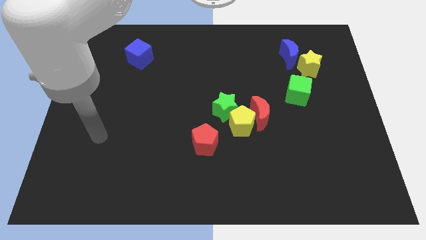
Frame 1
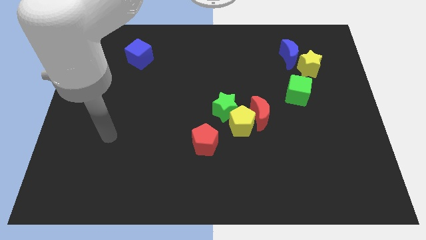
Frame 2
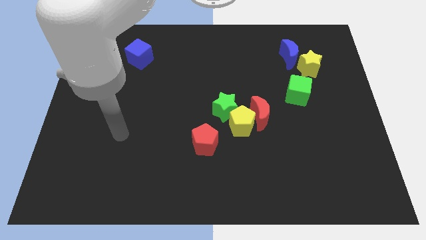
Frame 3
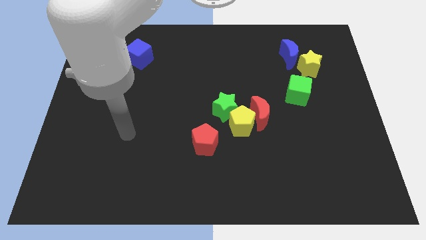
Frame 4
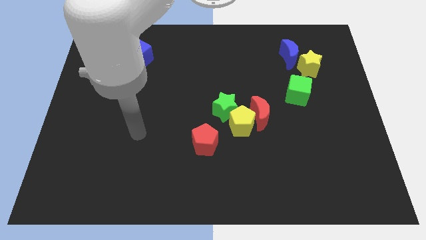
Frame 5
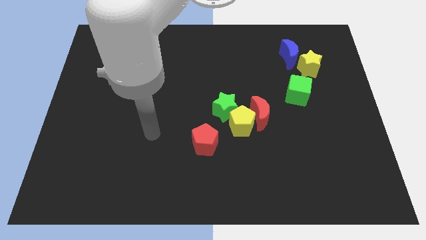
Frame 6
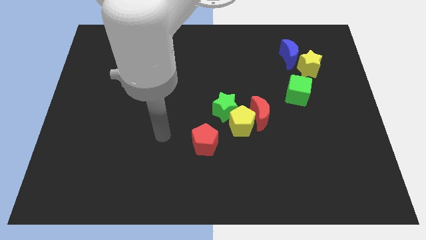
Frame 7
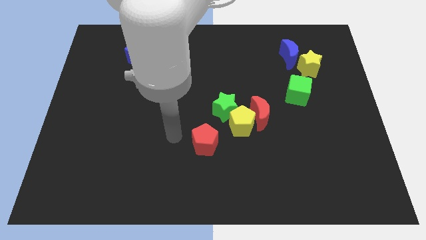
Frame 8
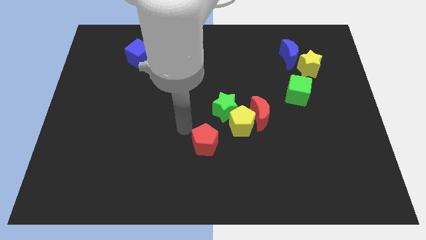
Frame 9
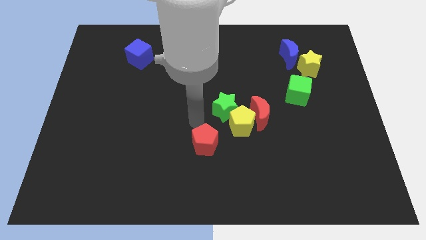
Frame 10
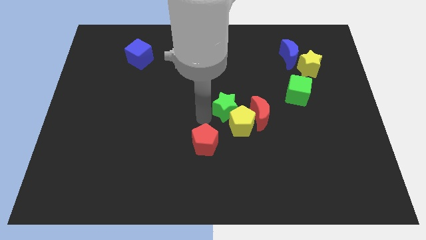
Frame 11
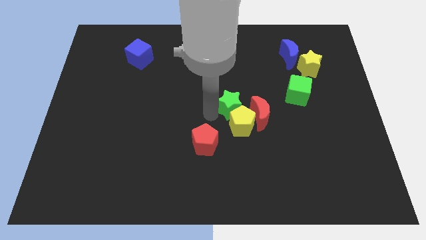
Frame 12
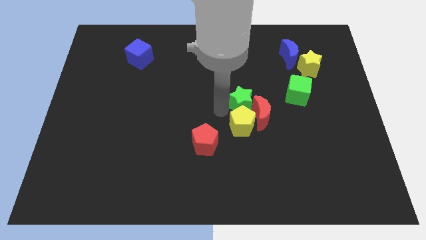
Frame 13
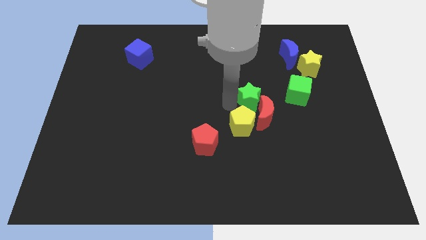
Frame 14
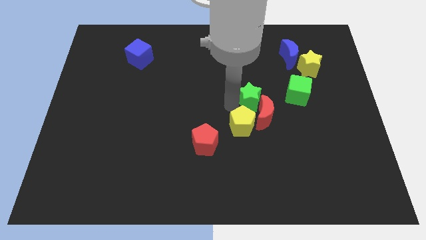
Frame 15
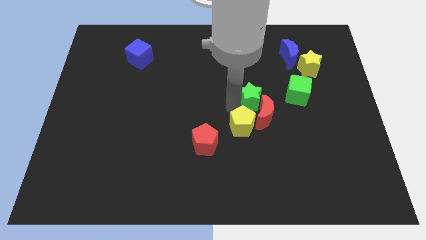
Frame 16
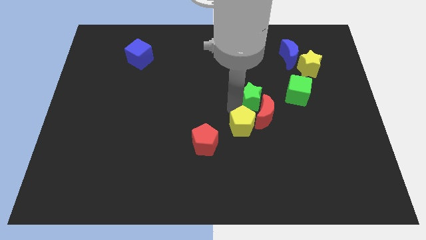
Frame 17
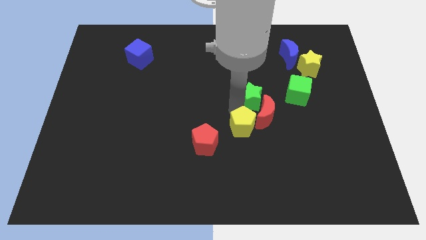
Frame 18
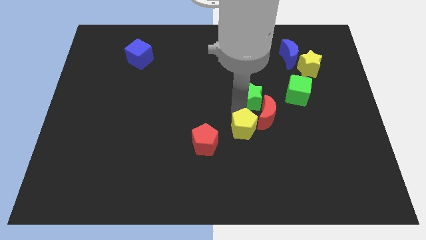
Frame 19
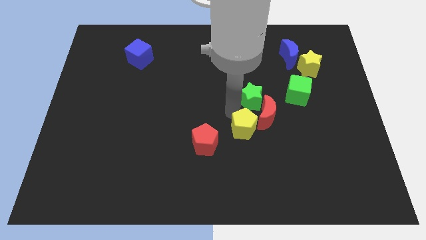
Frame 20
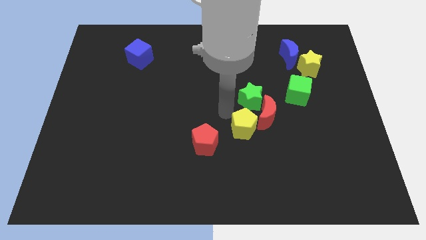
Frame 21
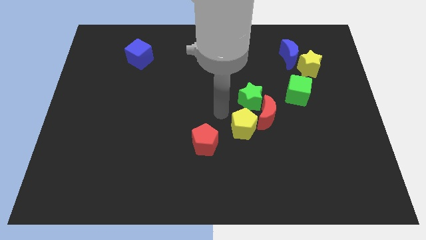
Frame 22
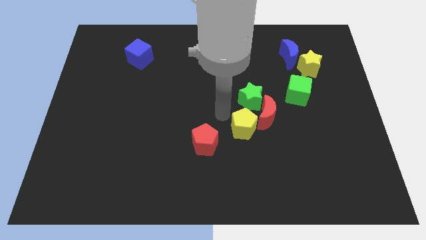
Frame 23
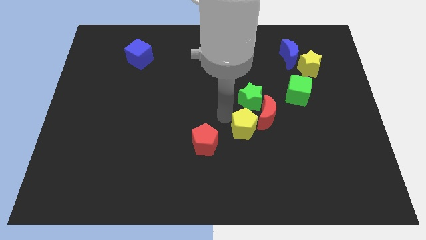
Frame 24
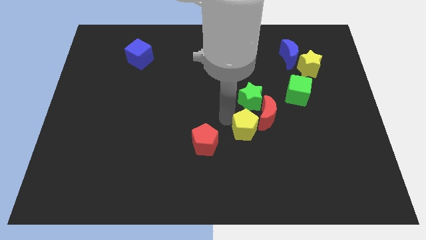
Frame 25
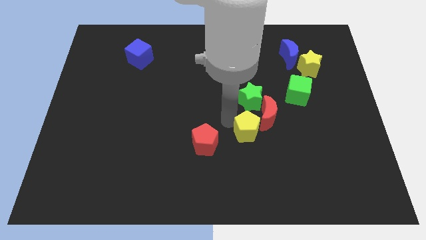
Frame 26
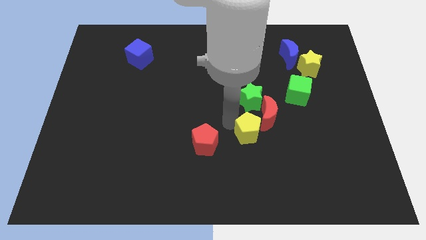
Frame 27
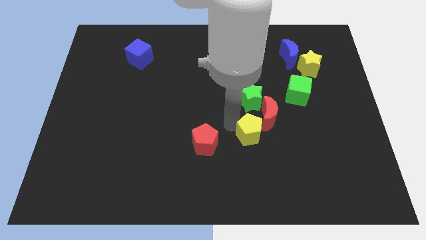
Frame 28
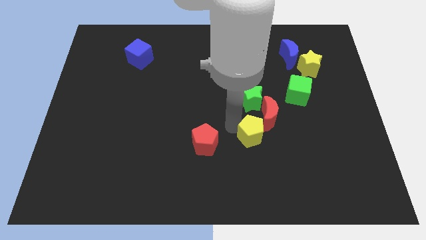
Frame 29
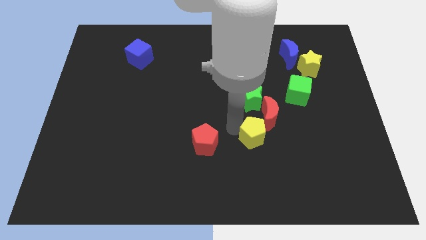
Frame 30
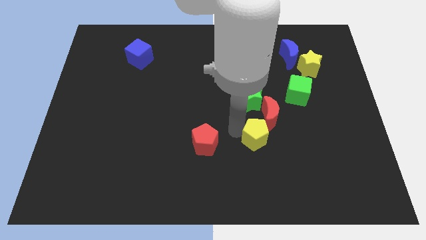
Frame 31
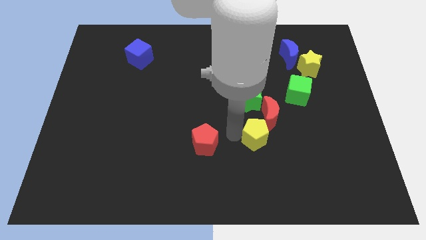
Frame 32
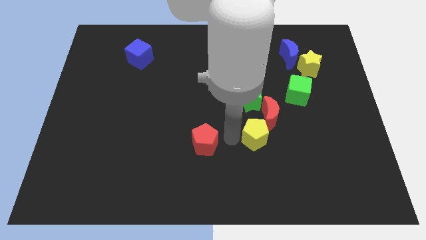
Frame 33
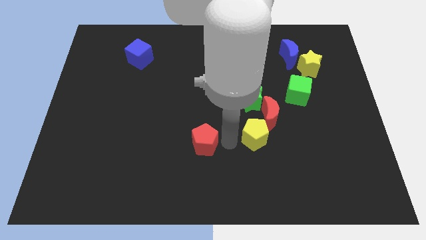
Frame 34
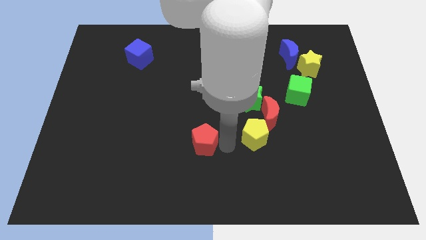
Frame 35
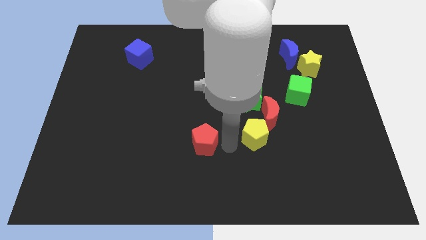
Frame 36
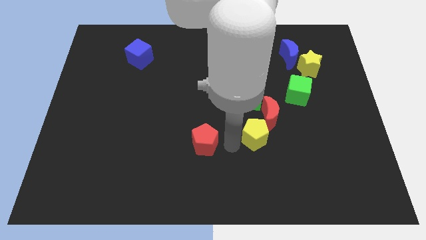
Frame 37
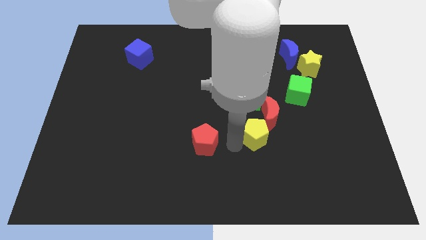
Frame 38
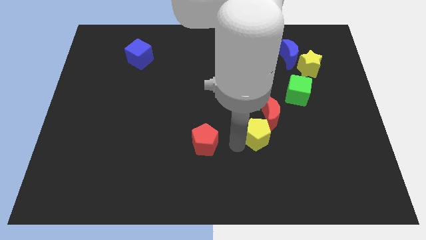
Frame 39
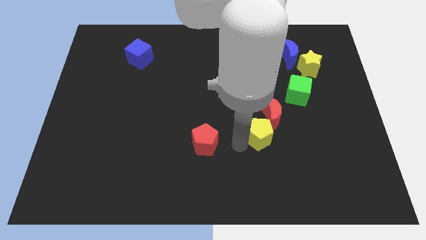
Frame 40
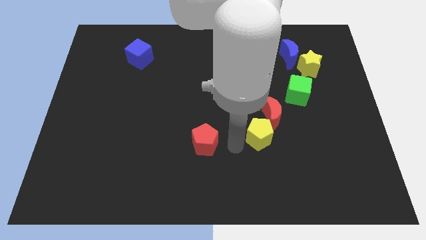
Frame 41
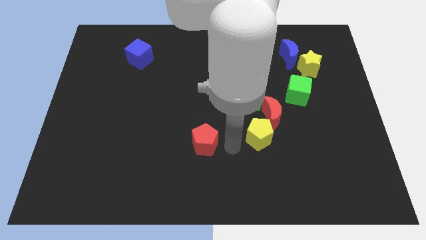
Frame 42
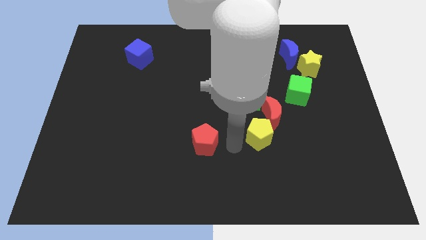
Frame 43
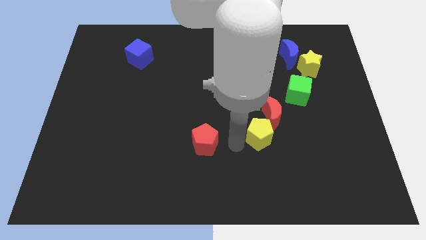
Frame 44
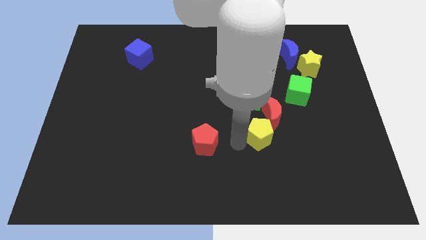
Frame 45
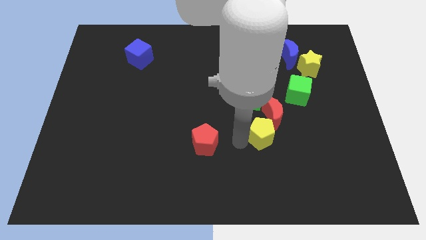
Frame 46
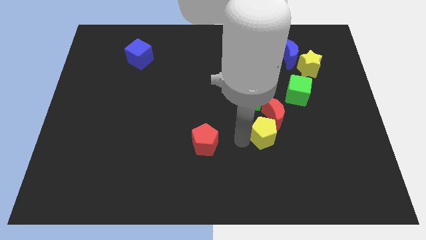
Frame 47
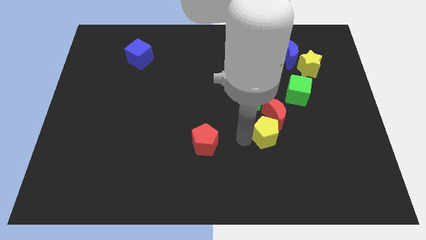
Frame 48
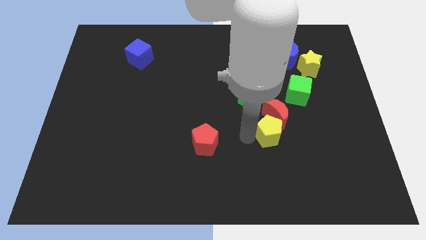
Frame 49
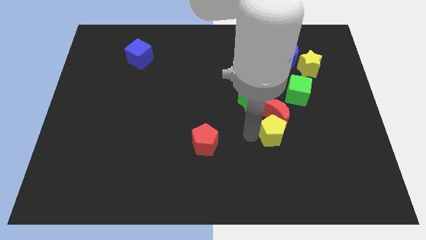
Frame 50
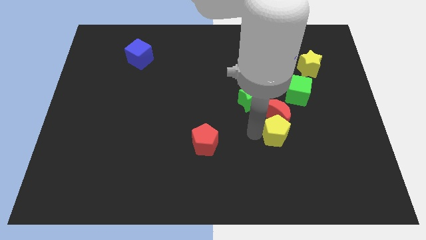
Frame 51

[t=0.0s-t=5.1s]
move the yellow pentagon a little bit right

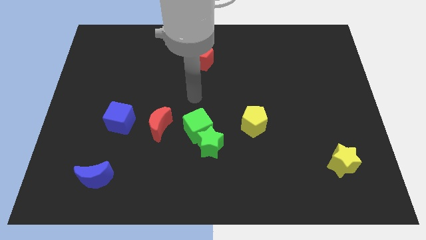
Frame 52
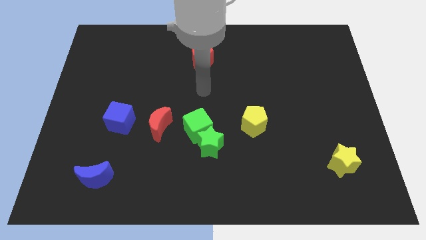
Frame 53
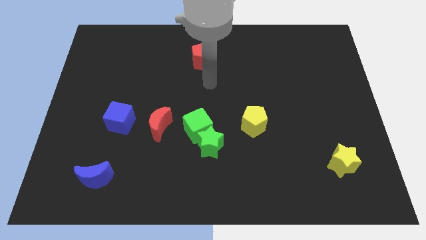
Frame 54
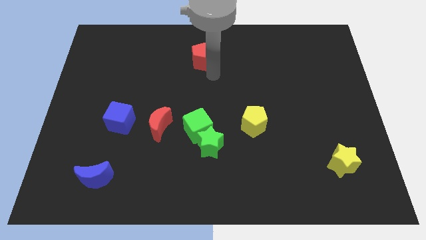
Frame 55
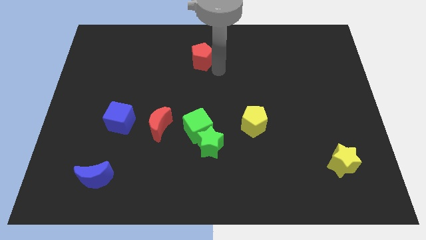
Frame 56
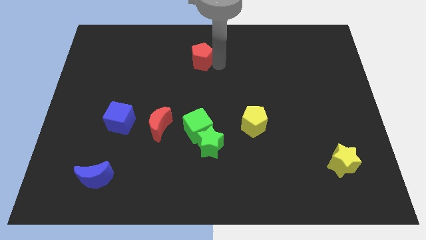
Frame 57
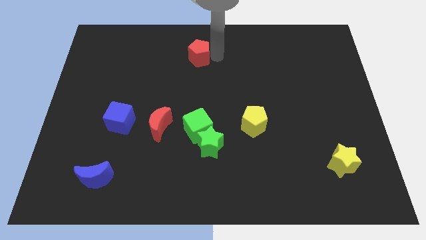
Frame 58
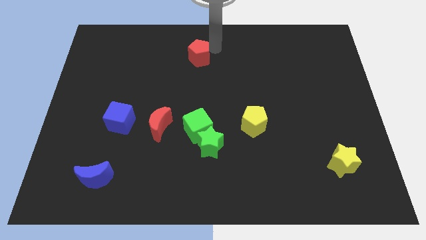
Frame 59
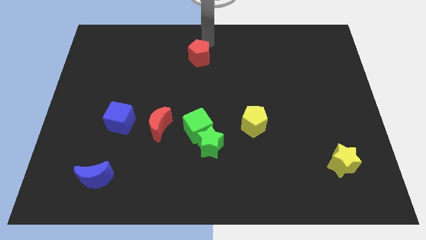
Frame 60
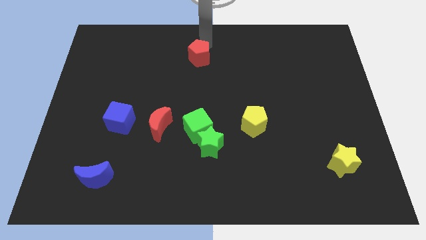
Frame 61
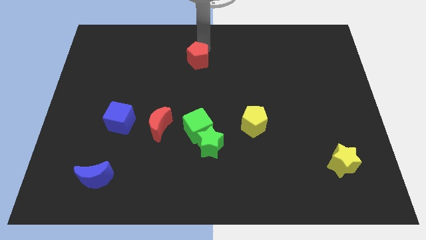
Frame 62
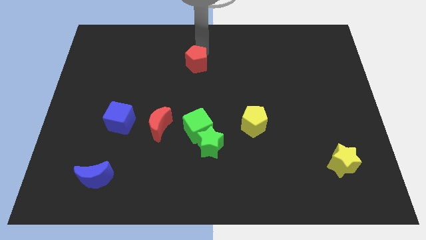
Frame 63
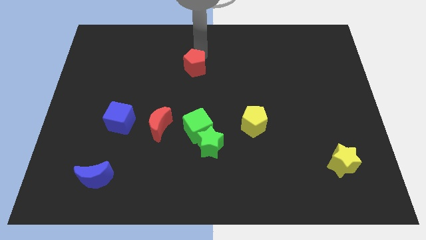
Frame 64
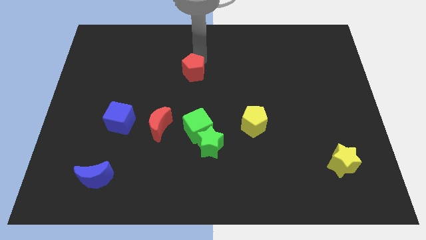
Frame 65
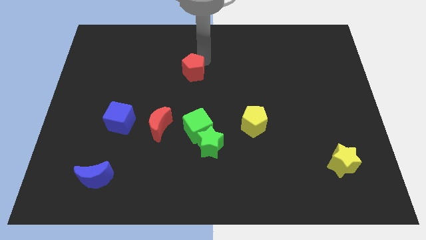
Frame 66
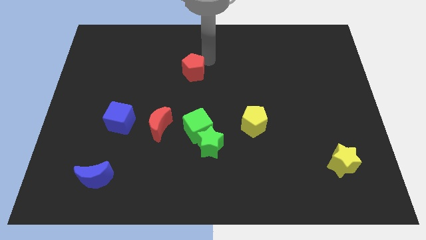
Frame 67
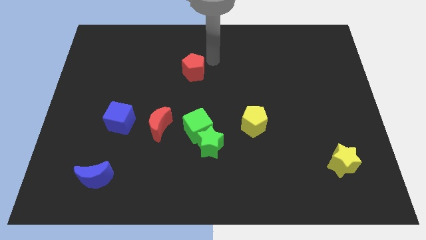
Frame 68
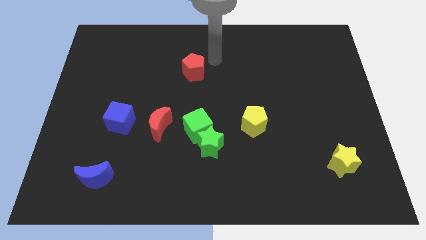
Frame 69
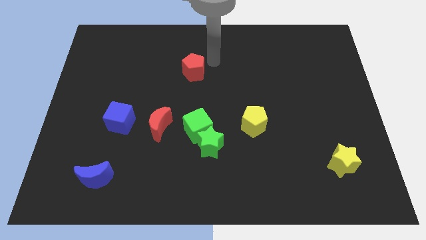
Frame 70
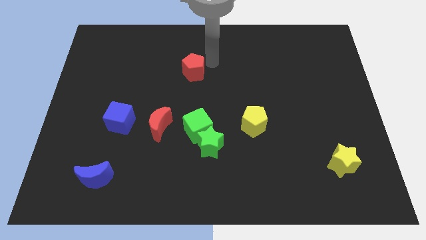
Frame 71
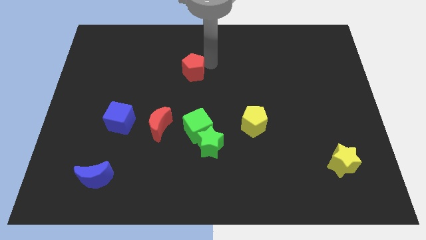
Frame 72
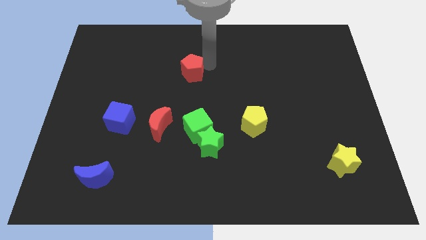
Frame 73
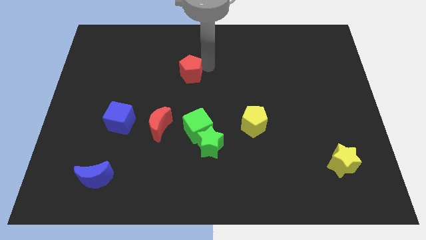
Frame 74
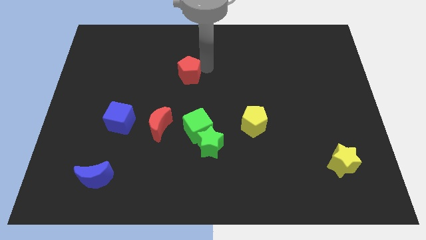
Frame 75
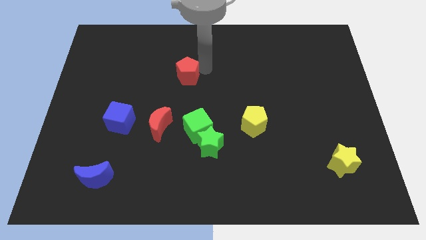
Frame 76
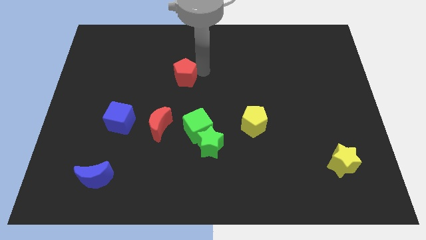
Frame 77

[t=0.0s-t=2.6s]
slightly slide the red pentagon diagonally downwards and left

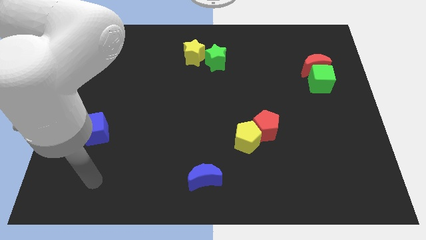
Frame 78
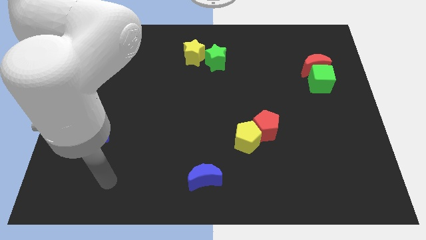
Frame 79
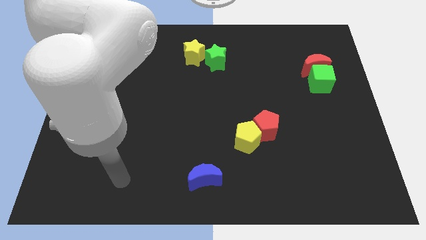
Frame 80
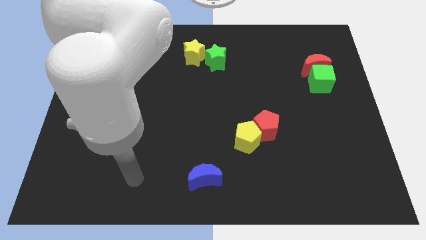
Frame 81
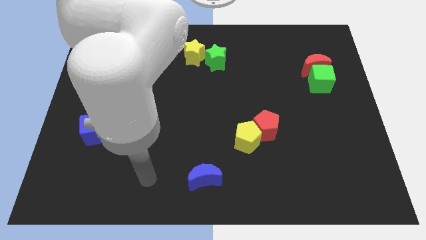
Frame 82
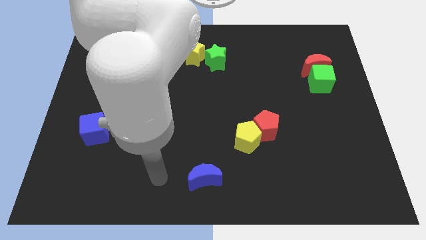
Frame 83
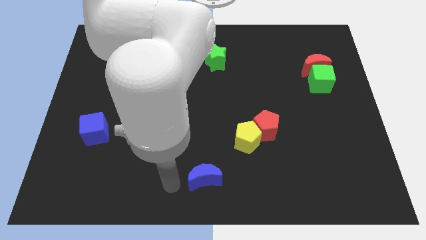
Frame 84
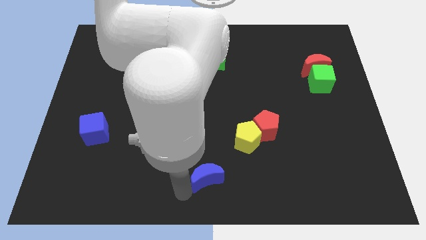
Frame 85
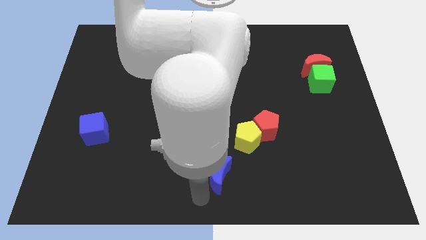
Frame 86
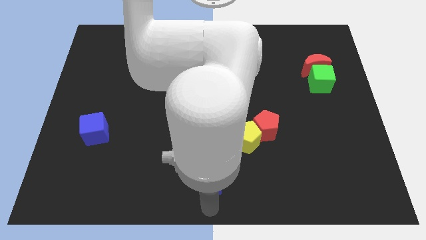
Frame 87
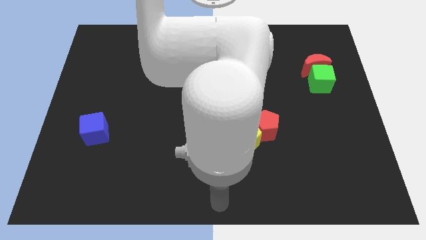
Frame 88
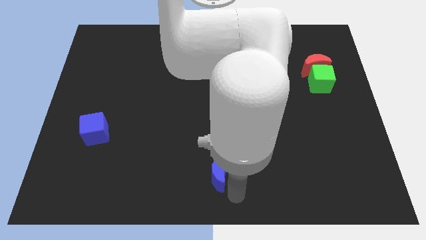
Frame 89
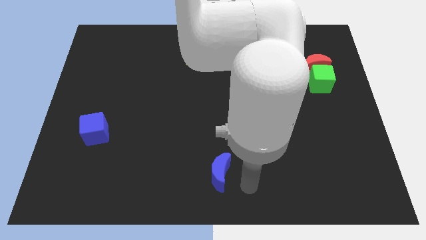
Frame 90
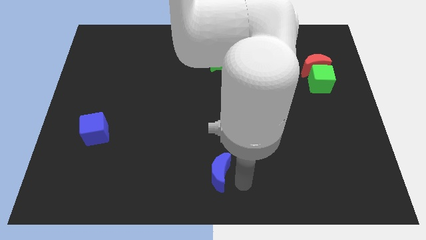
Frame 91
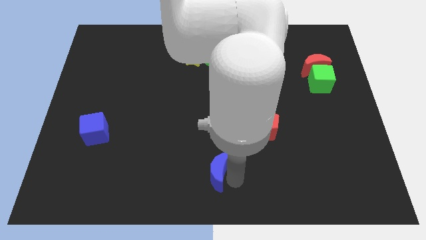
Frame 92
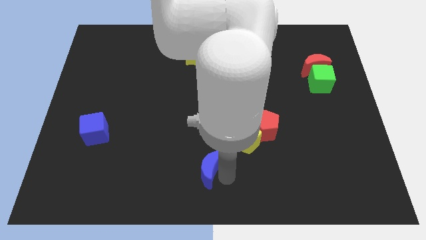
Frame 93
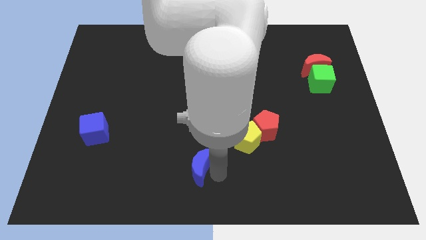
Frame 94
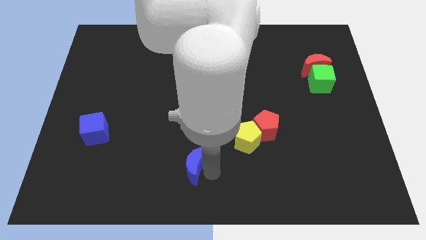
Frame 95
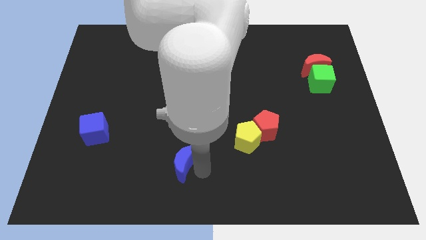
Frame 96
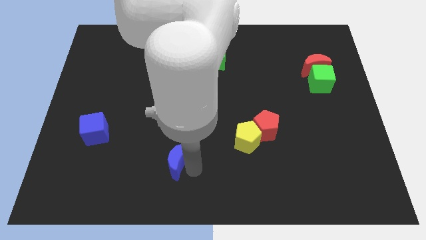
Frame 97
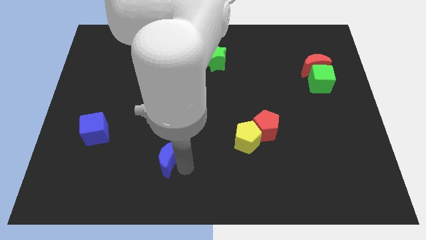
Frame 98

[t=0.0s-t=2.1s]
move the blue moon a little bit upwards and then to the left
